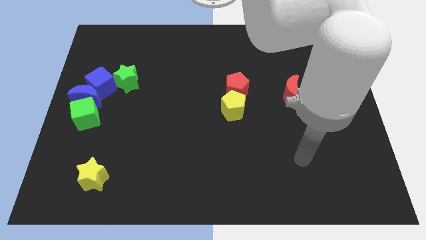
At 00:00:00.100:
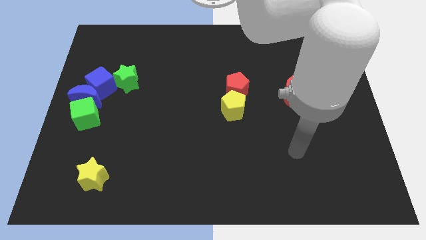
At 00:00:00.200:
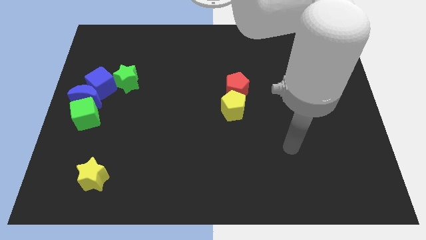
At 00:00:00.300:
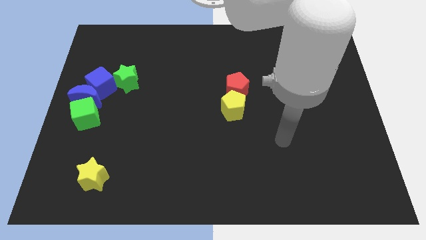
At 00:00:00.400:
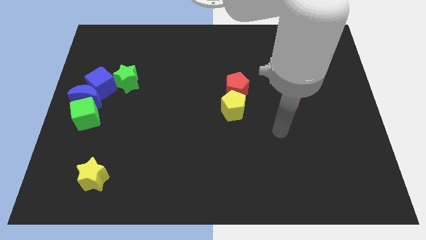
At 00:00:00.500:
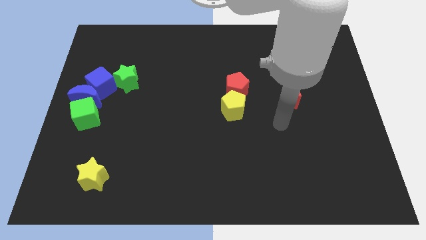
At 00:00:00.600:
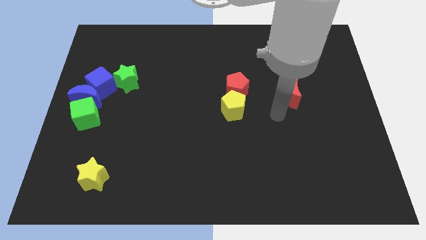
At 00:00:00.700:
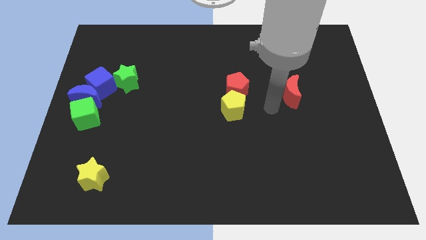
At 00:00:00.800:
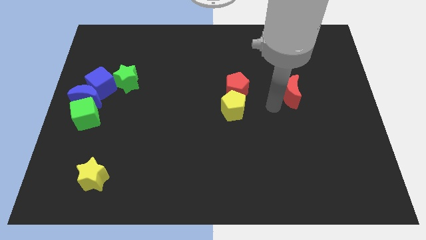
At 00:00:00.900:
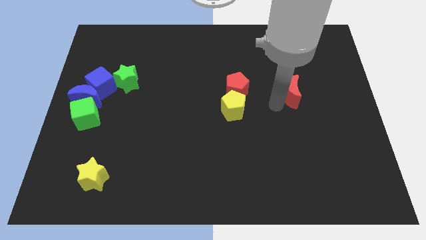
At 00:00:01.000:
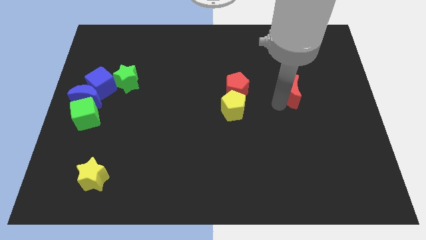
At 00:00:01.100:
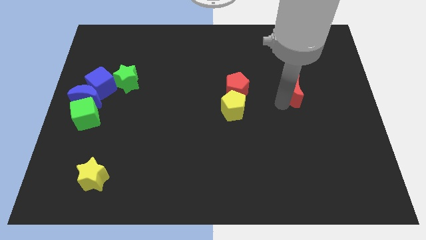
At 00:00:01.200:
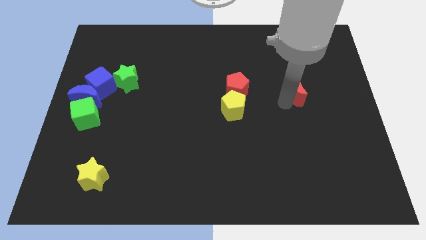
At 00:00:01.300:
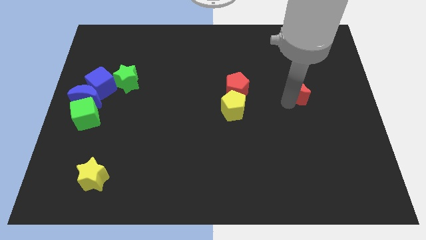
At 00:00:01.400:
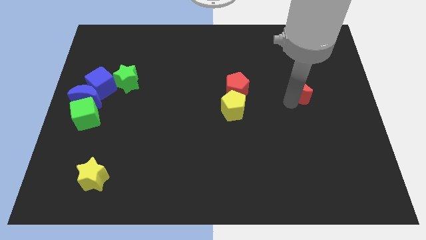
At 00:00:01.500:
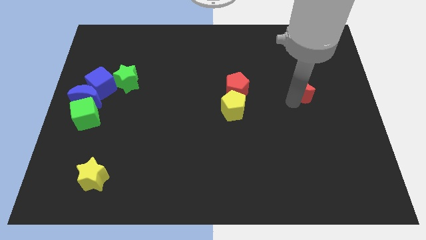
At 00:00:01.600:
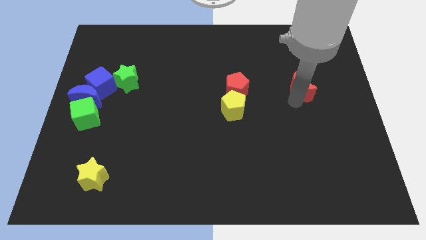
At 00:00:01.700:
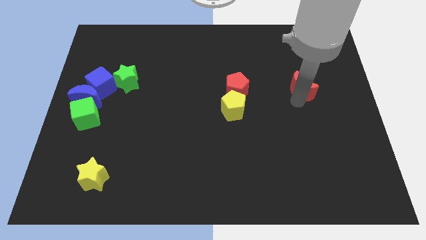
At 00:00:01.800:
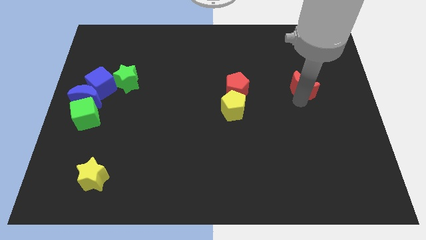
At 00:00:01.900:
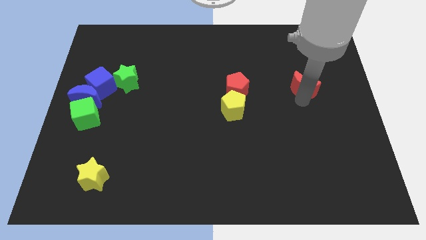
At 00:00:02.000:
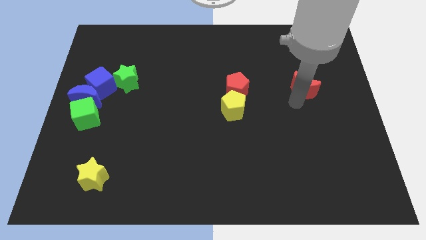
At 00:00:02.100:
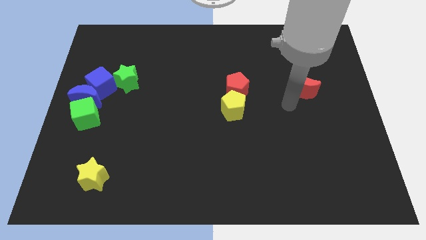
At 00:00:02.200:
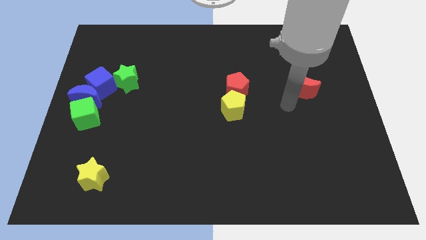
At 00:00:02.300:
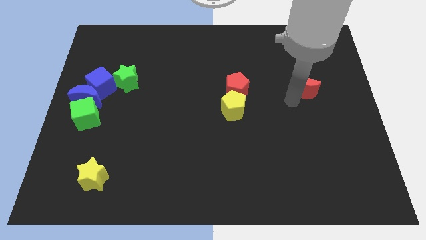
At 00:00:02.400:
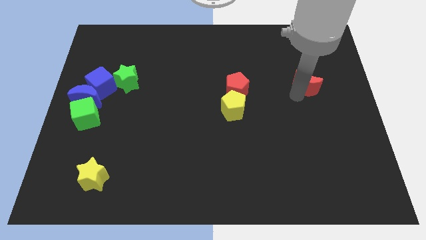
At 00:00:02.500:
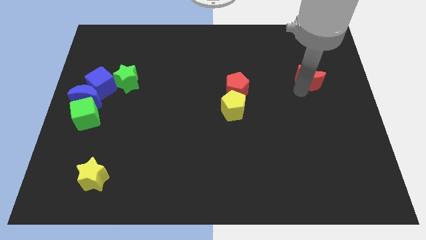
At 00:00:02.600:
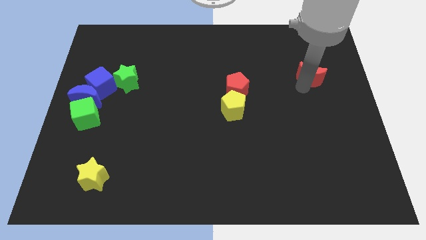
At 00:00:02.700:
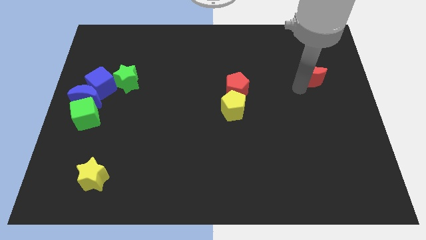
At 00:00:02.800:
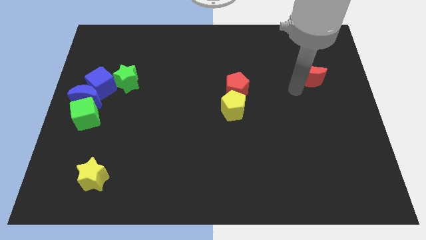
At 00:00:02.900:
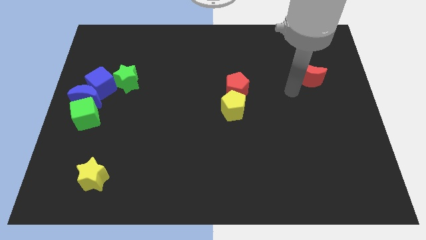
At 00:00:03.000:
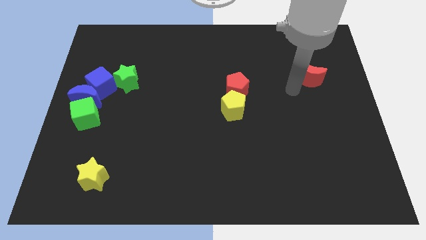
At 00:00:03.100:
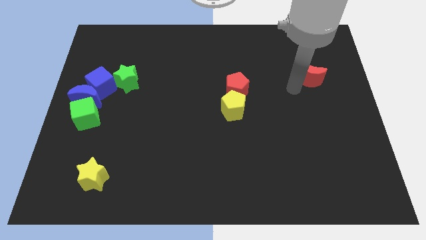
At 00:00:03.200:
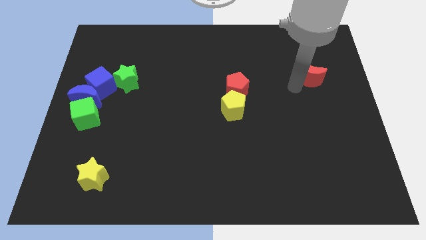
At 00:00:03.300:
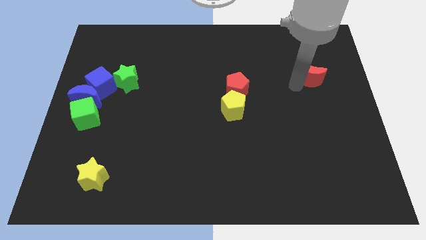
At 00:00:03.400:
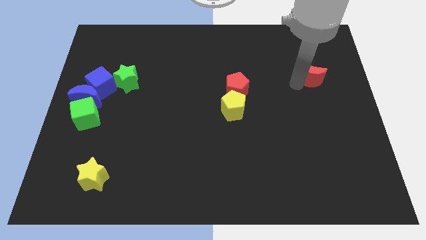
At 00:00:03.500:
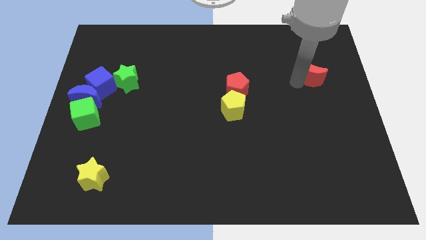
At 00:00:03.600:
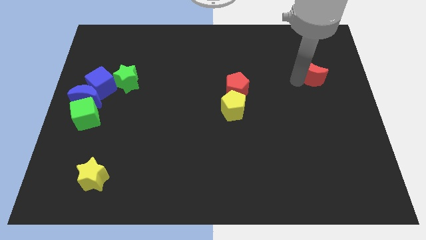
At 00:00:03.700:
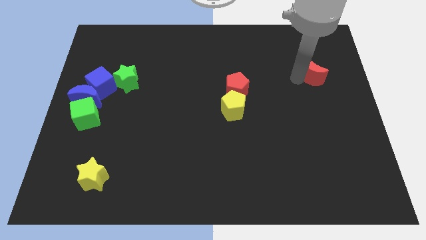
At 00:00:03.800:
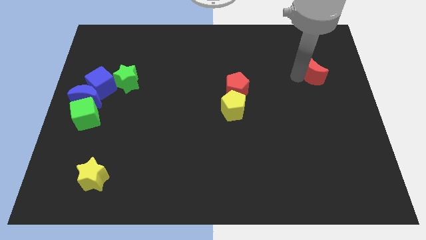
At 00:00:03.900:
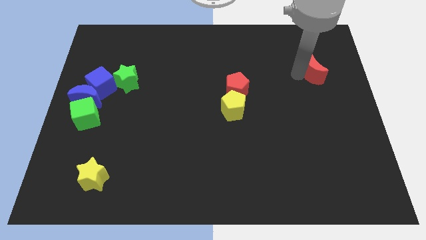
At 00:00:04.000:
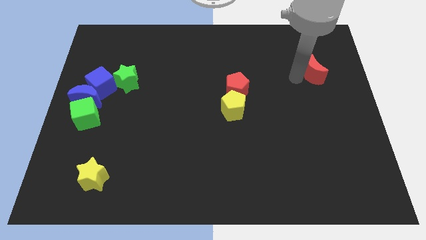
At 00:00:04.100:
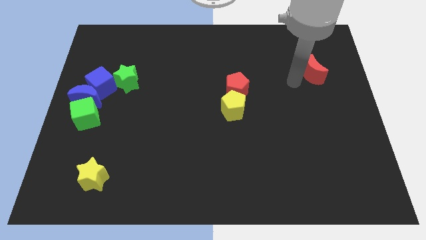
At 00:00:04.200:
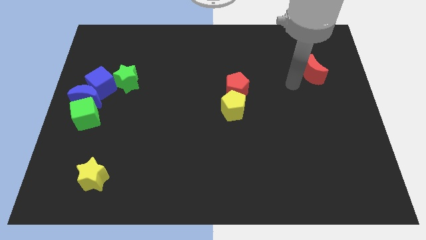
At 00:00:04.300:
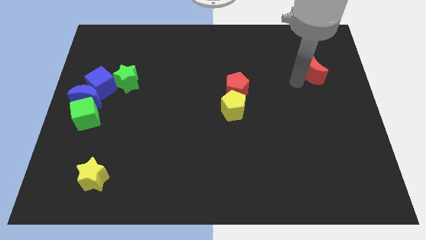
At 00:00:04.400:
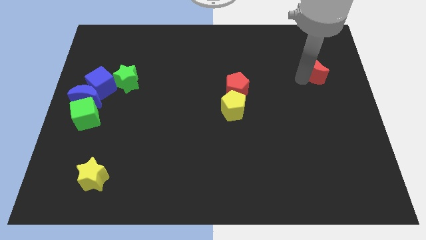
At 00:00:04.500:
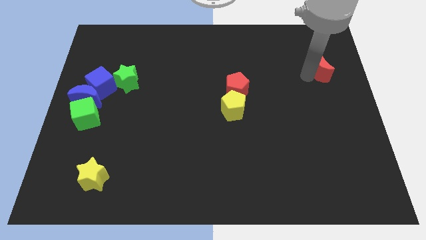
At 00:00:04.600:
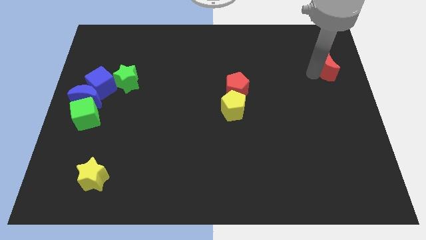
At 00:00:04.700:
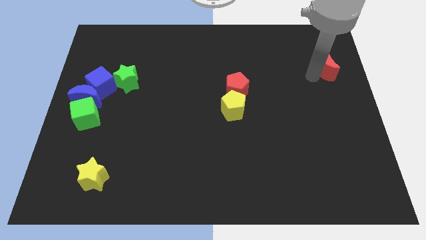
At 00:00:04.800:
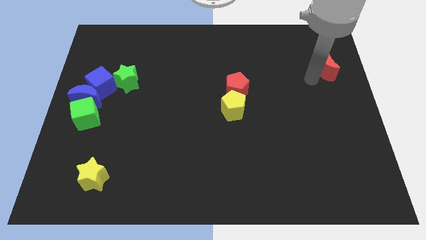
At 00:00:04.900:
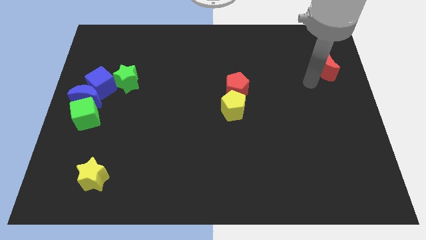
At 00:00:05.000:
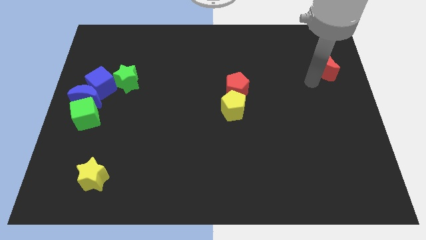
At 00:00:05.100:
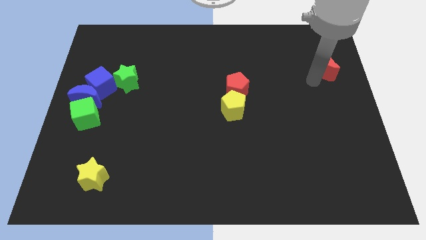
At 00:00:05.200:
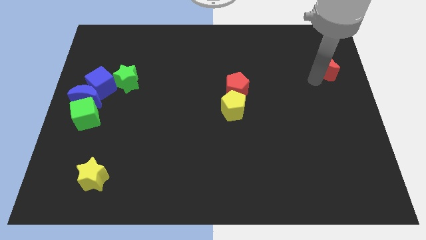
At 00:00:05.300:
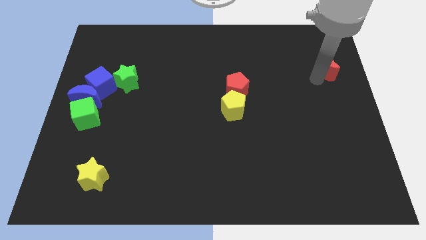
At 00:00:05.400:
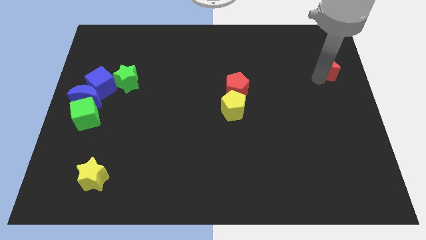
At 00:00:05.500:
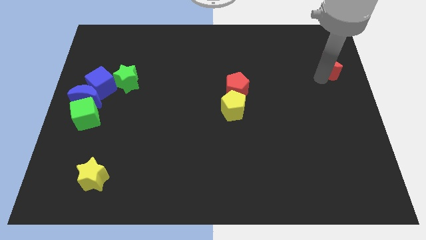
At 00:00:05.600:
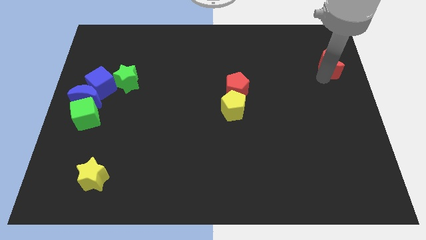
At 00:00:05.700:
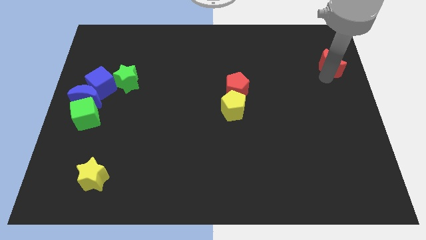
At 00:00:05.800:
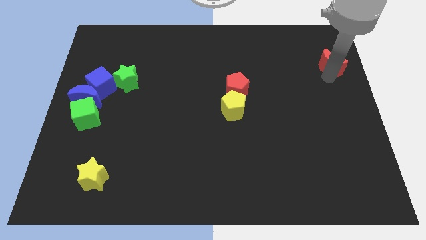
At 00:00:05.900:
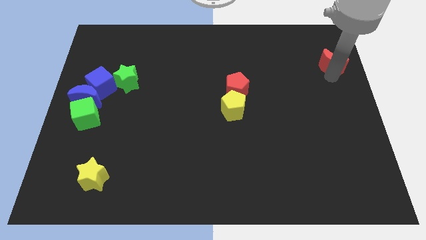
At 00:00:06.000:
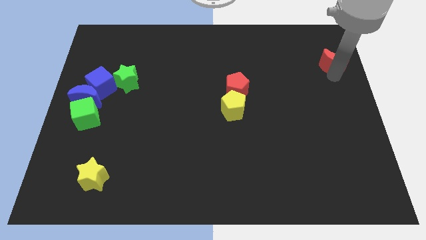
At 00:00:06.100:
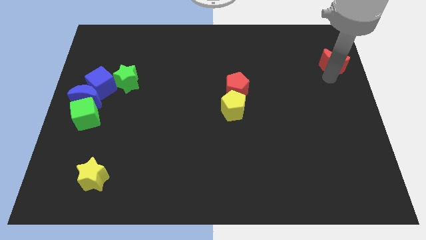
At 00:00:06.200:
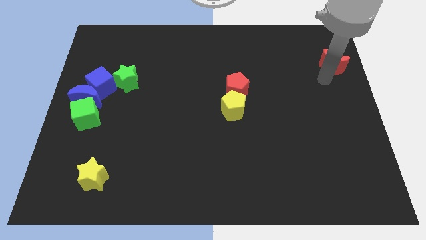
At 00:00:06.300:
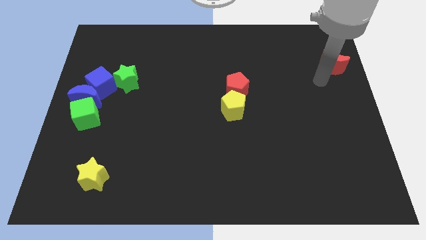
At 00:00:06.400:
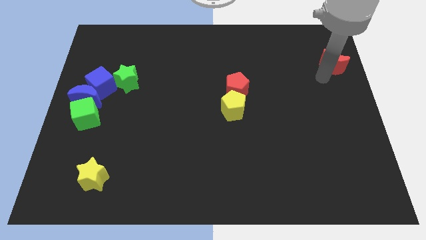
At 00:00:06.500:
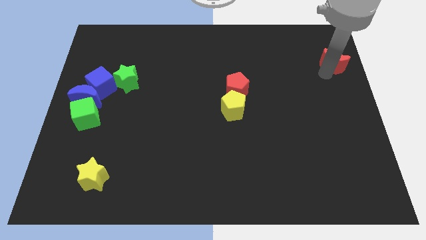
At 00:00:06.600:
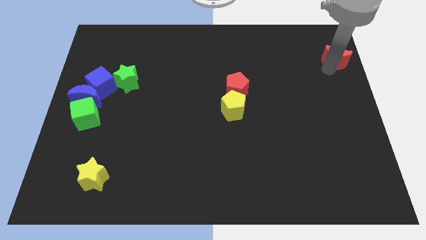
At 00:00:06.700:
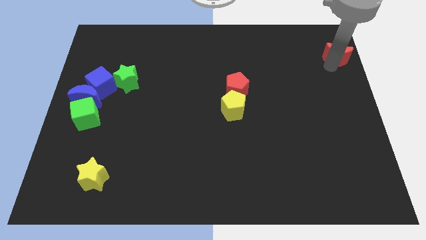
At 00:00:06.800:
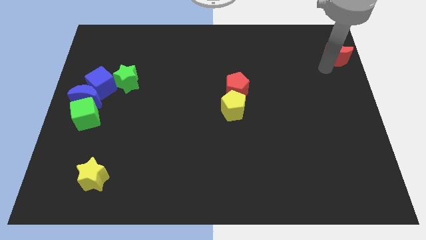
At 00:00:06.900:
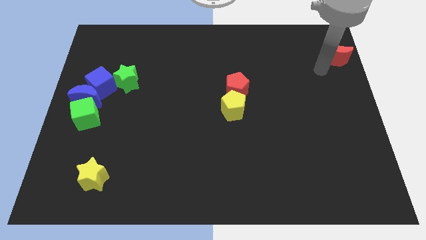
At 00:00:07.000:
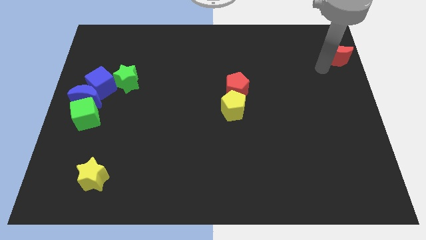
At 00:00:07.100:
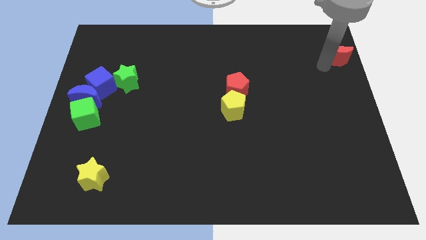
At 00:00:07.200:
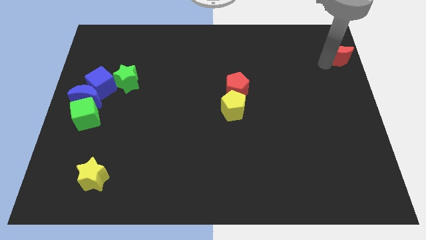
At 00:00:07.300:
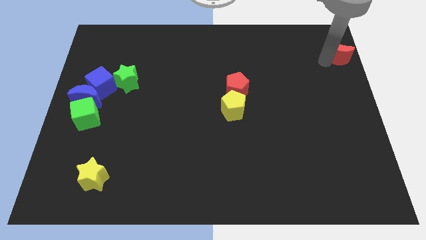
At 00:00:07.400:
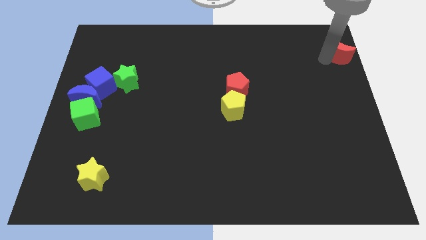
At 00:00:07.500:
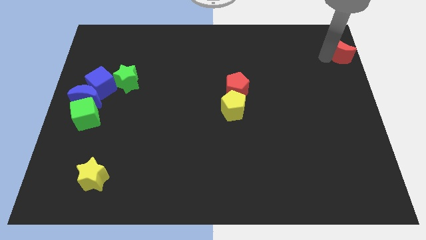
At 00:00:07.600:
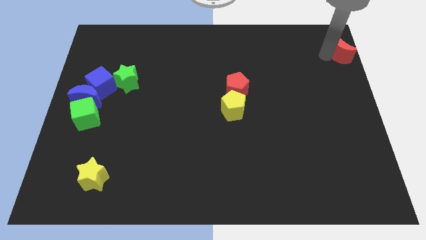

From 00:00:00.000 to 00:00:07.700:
move the red moon to the top right corner
